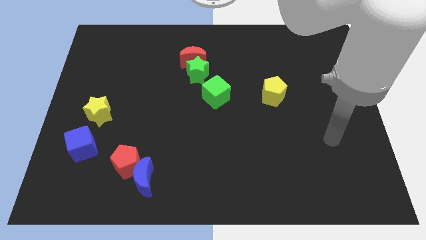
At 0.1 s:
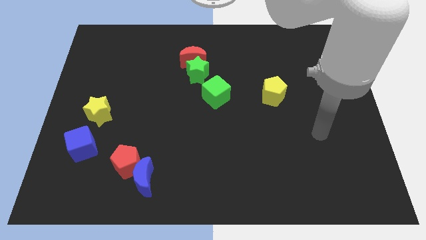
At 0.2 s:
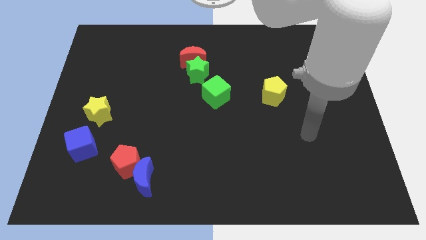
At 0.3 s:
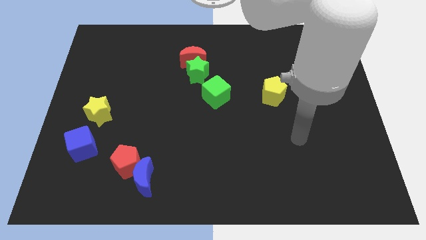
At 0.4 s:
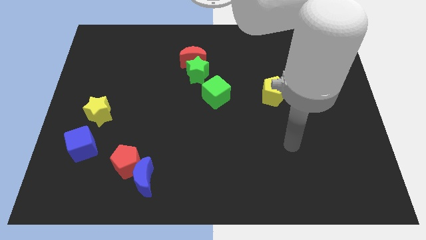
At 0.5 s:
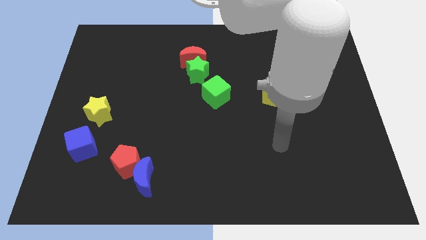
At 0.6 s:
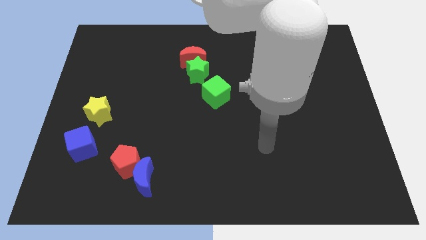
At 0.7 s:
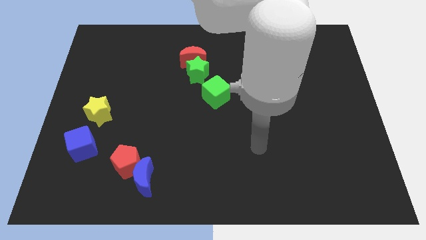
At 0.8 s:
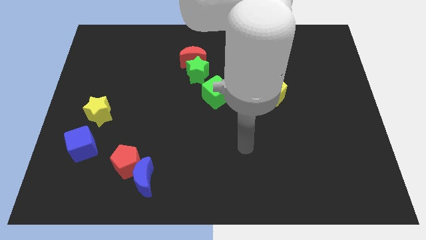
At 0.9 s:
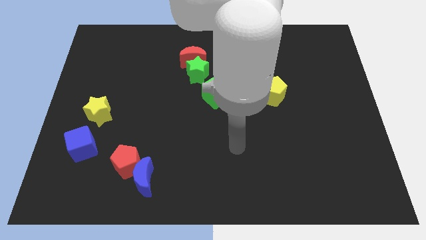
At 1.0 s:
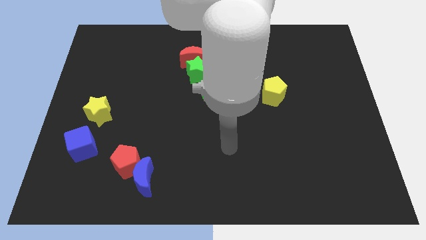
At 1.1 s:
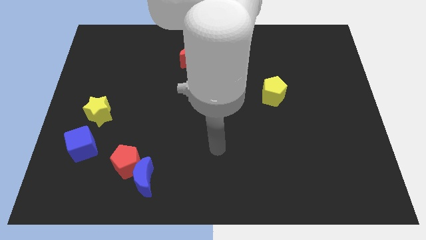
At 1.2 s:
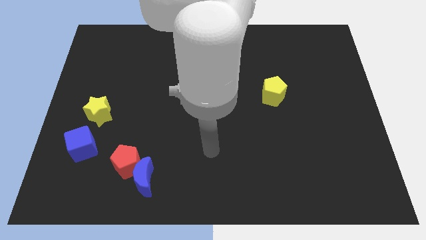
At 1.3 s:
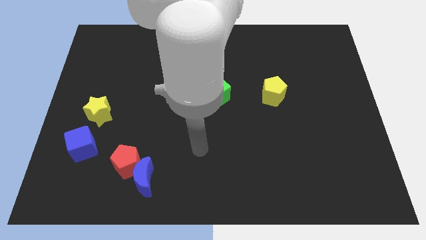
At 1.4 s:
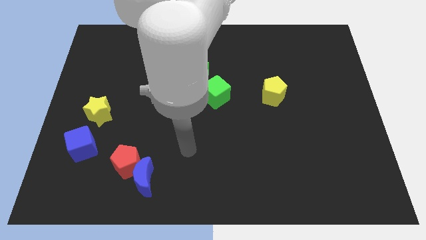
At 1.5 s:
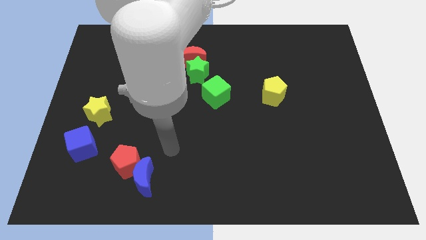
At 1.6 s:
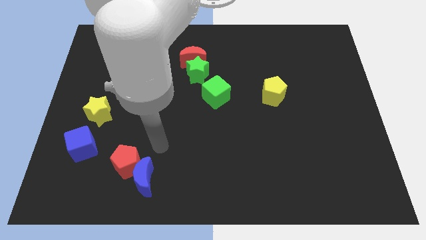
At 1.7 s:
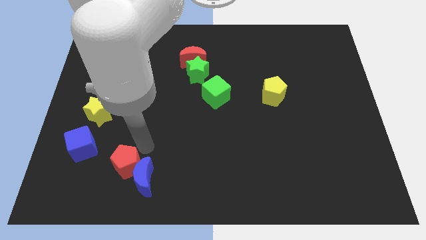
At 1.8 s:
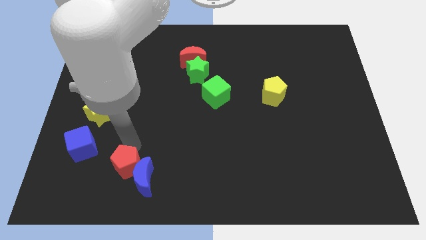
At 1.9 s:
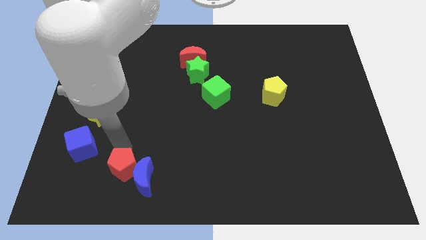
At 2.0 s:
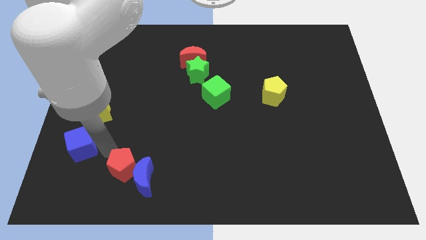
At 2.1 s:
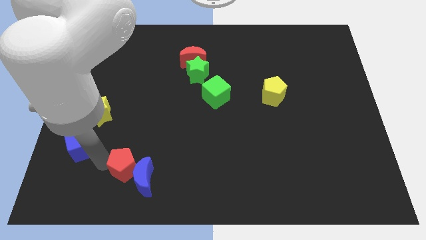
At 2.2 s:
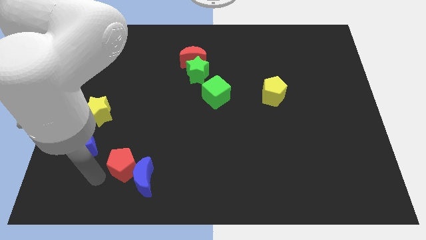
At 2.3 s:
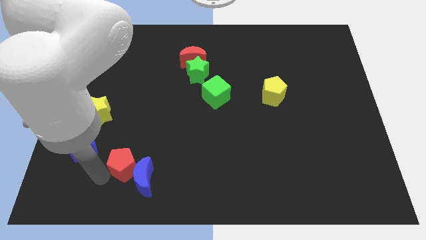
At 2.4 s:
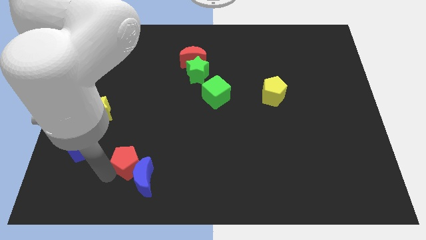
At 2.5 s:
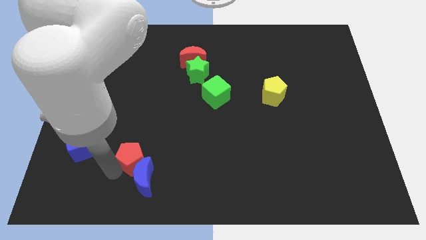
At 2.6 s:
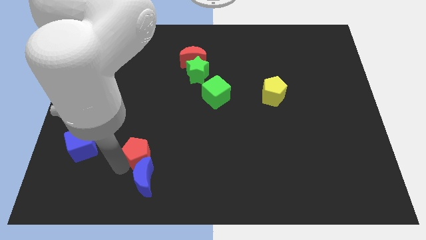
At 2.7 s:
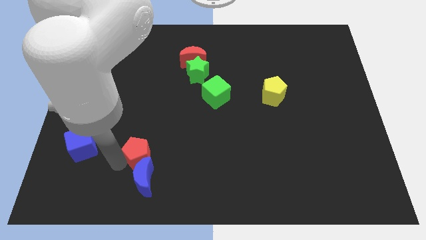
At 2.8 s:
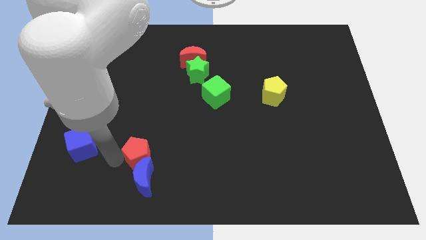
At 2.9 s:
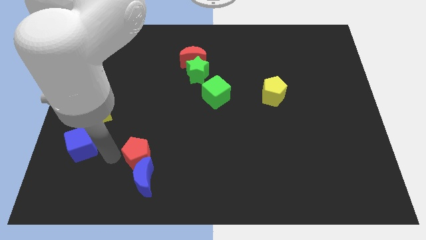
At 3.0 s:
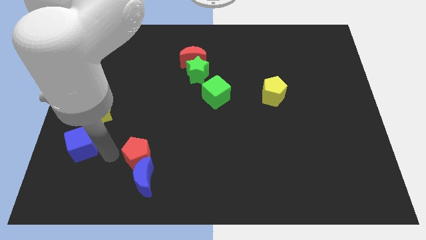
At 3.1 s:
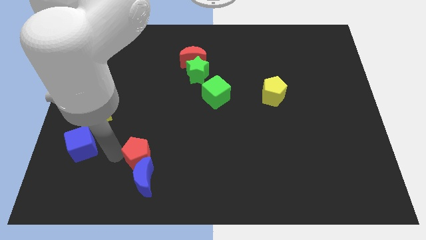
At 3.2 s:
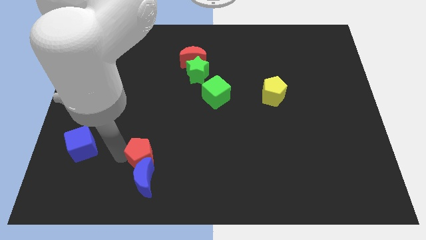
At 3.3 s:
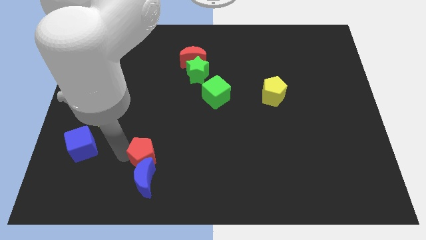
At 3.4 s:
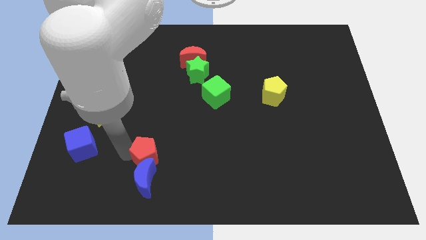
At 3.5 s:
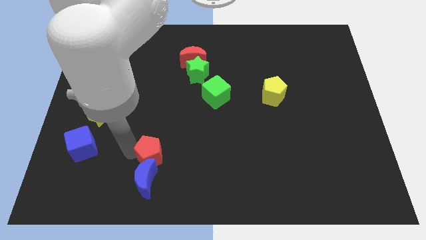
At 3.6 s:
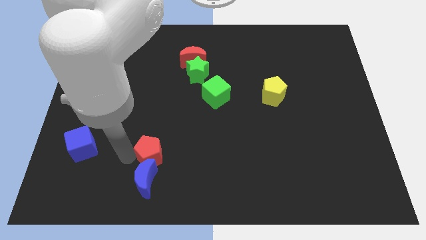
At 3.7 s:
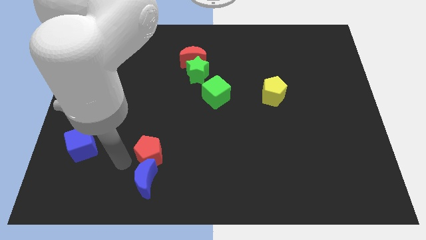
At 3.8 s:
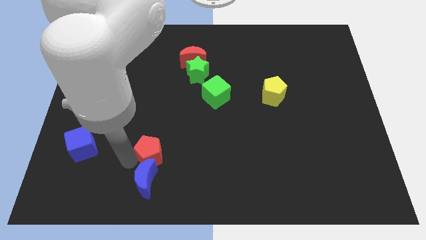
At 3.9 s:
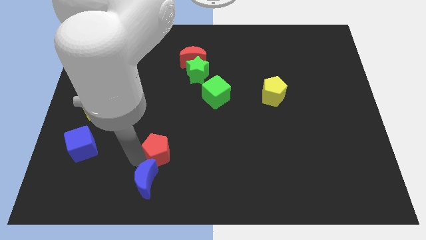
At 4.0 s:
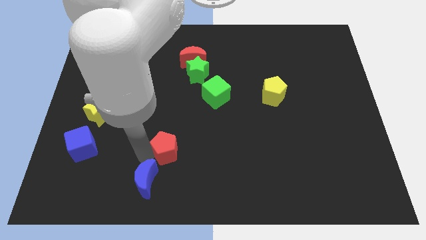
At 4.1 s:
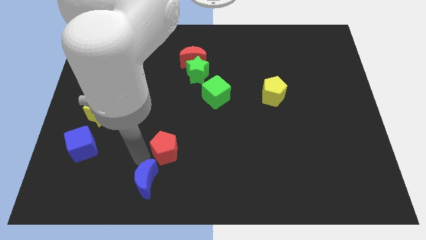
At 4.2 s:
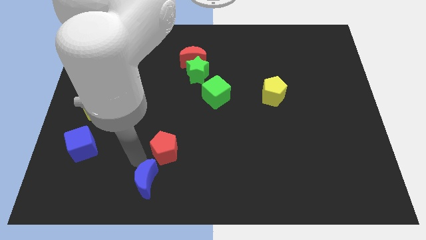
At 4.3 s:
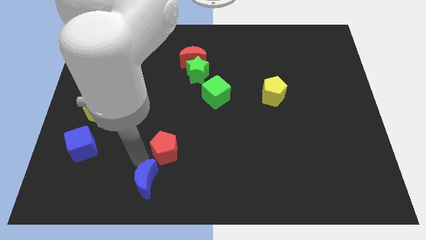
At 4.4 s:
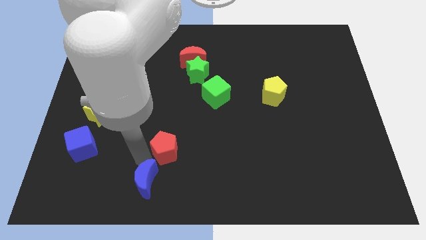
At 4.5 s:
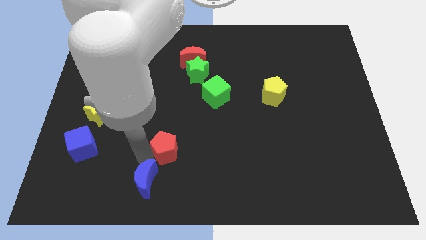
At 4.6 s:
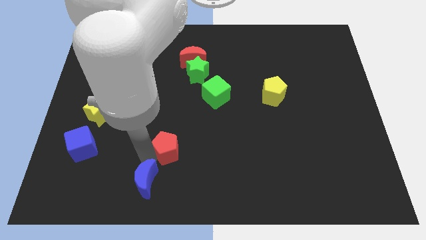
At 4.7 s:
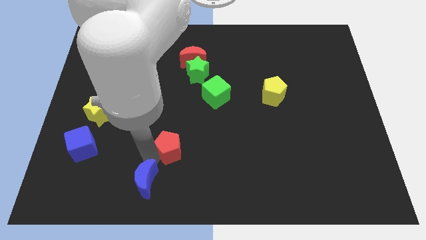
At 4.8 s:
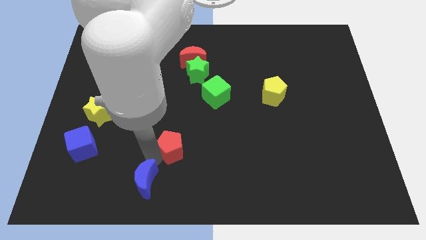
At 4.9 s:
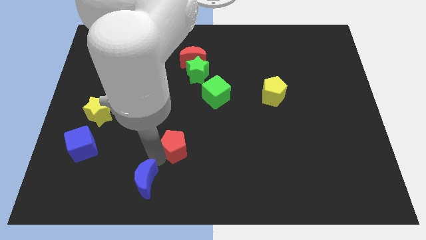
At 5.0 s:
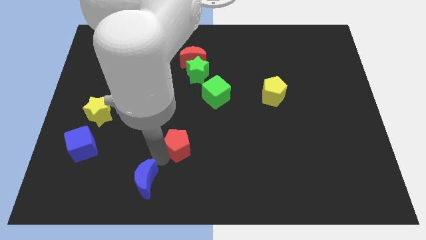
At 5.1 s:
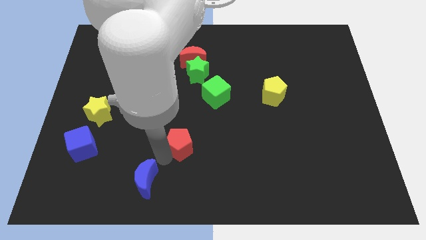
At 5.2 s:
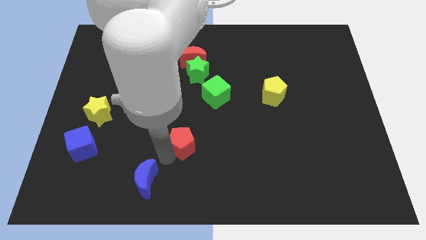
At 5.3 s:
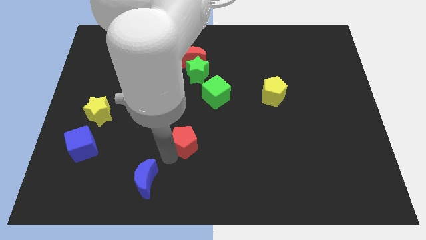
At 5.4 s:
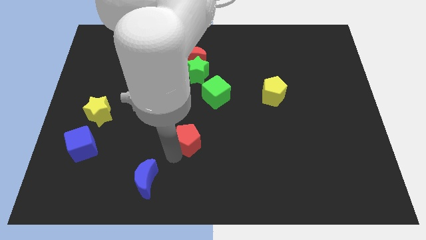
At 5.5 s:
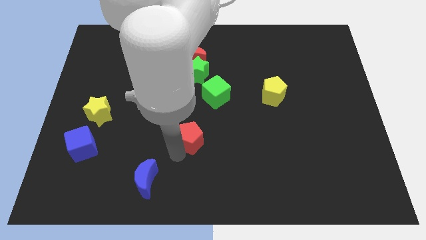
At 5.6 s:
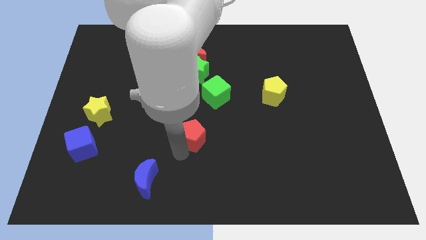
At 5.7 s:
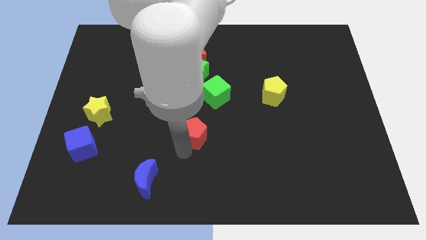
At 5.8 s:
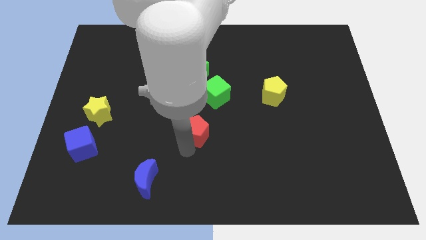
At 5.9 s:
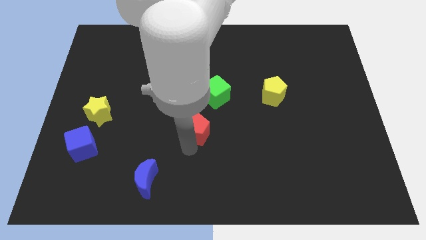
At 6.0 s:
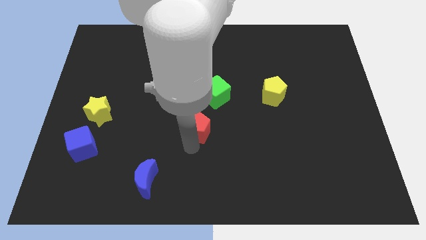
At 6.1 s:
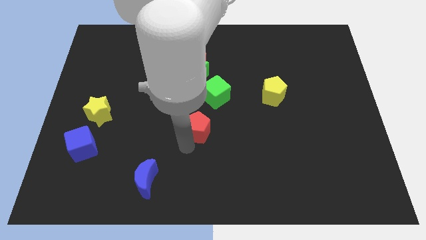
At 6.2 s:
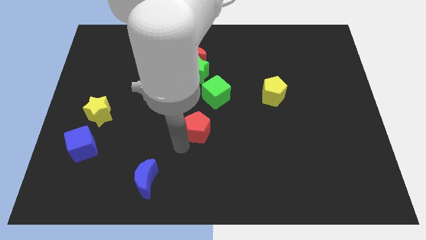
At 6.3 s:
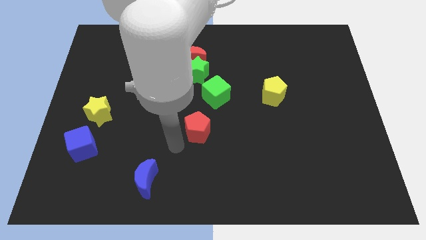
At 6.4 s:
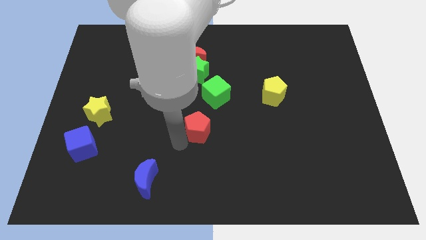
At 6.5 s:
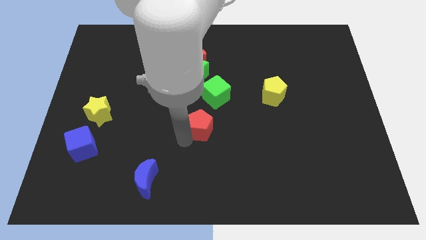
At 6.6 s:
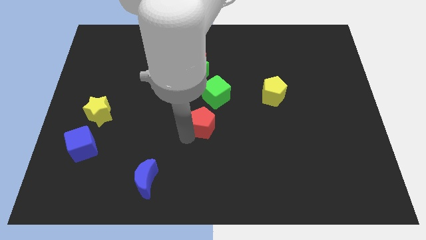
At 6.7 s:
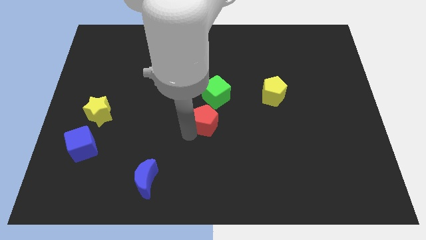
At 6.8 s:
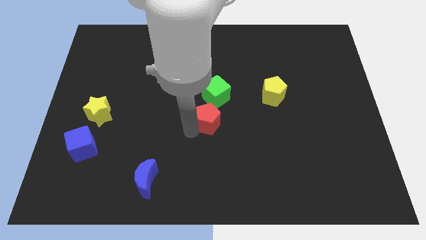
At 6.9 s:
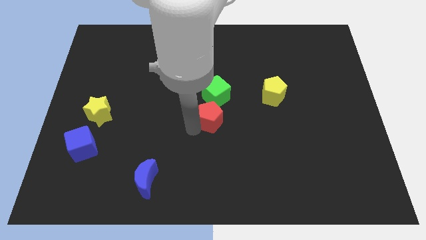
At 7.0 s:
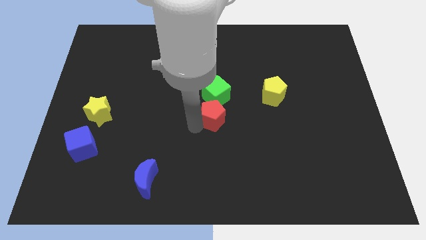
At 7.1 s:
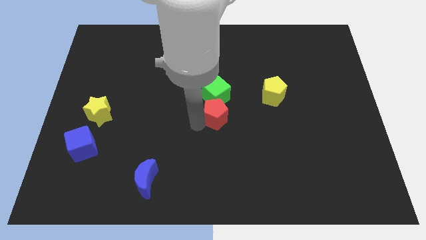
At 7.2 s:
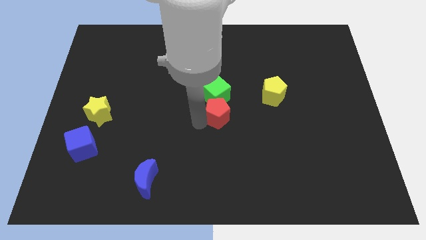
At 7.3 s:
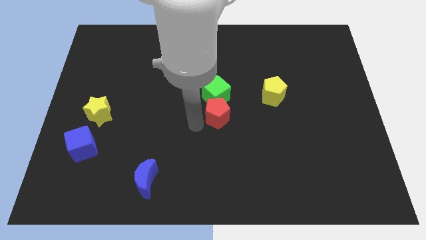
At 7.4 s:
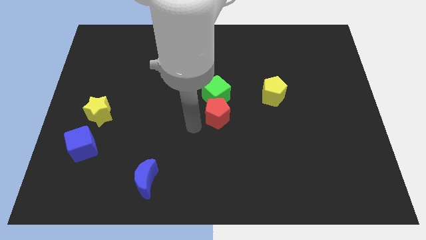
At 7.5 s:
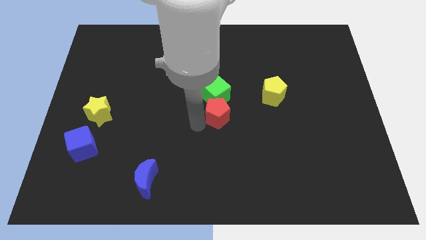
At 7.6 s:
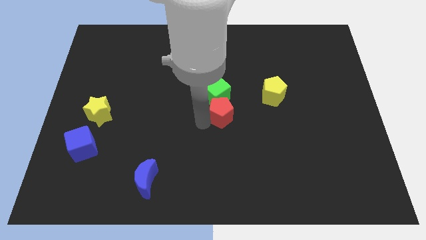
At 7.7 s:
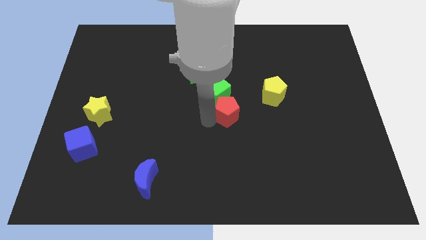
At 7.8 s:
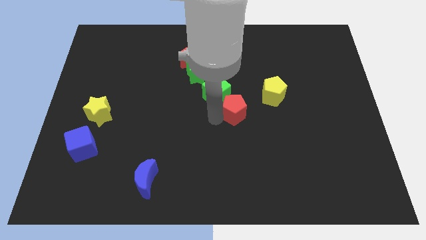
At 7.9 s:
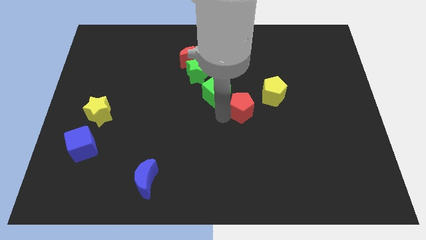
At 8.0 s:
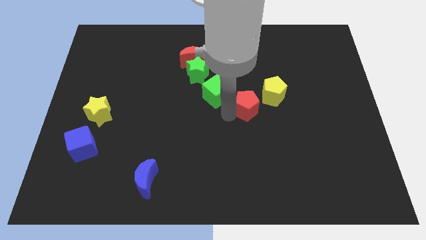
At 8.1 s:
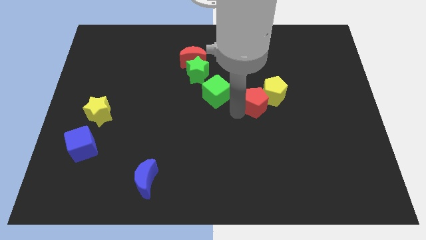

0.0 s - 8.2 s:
slide the red pentagon to the yellow pentagon
